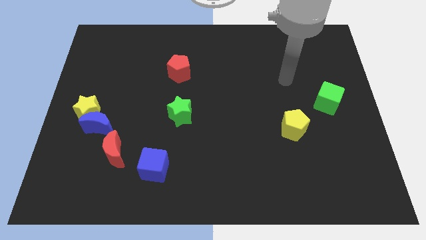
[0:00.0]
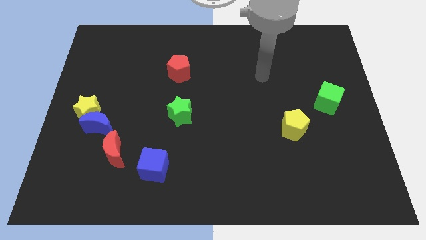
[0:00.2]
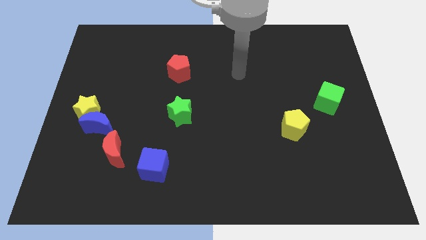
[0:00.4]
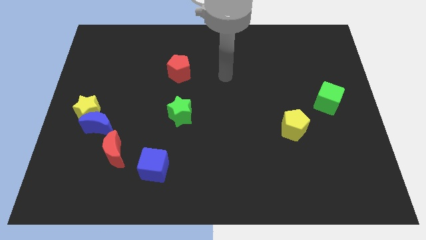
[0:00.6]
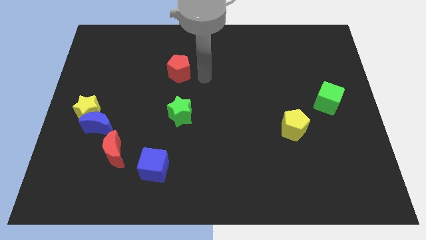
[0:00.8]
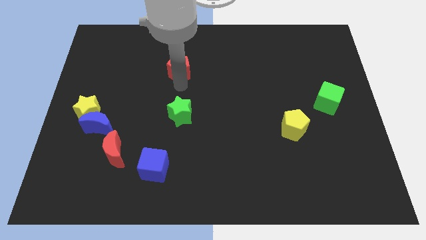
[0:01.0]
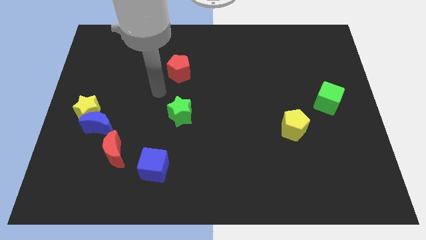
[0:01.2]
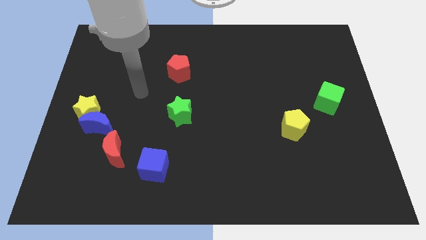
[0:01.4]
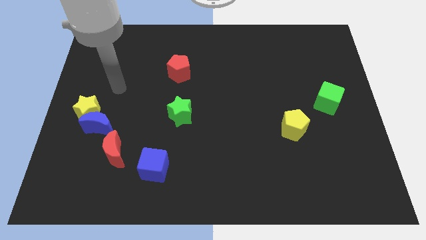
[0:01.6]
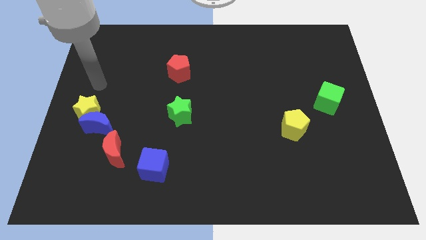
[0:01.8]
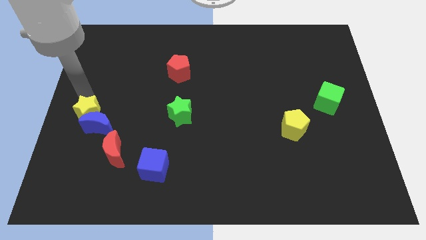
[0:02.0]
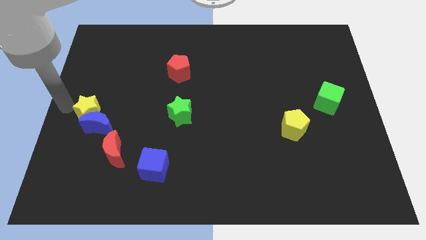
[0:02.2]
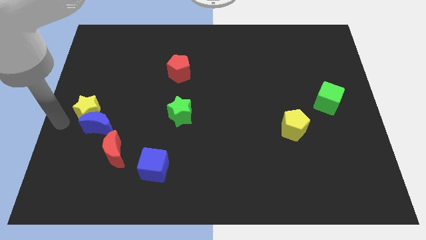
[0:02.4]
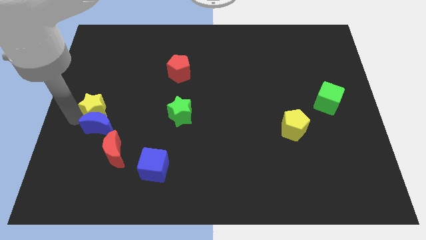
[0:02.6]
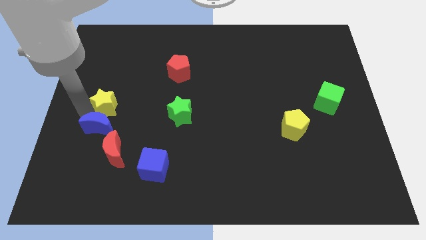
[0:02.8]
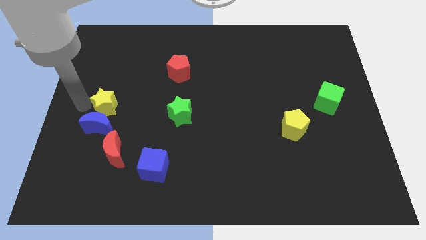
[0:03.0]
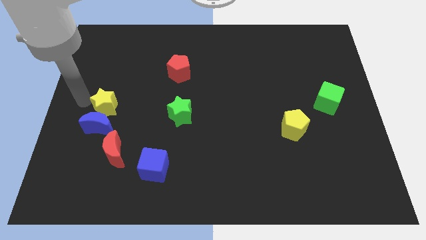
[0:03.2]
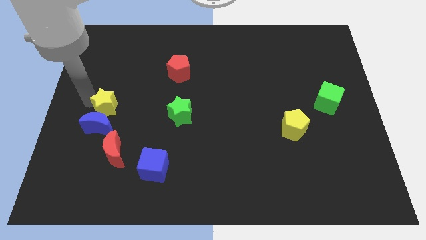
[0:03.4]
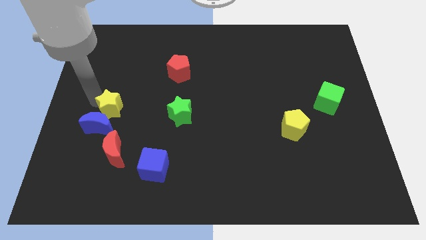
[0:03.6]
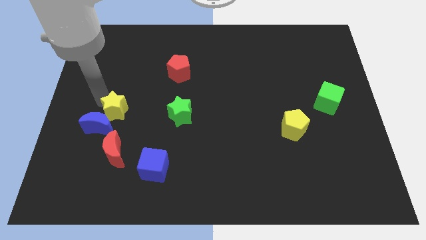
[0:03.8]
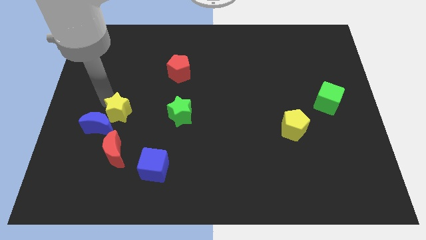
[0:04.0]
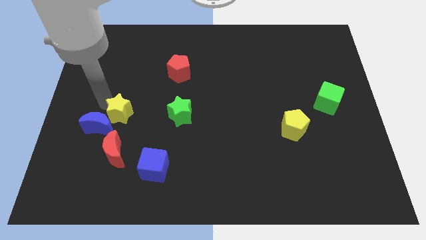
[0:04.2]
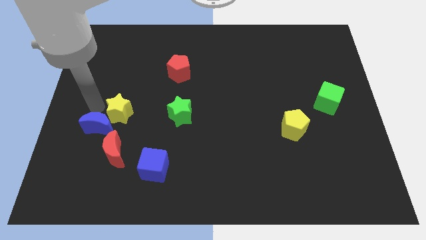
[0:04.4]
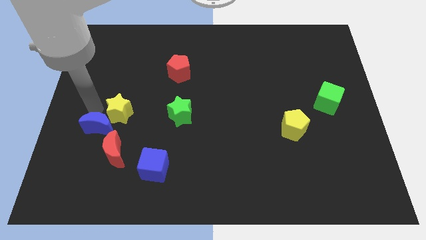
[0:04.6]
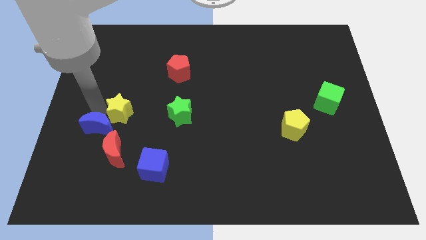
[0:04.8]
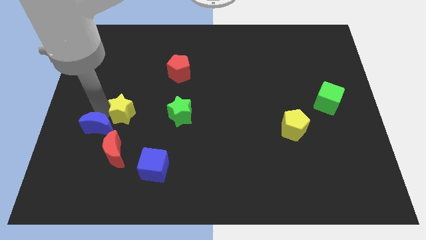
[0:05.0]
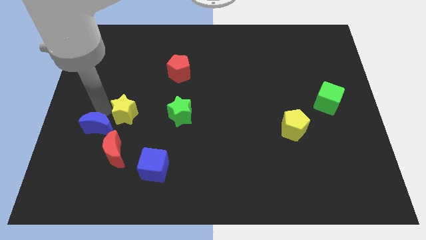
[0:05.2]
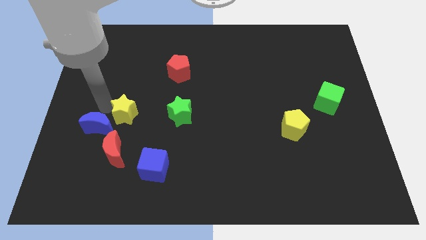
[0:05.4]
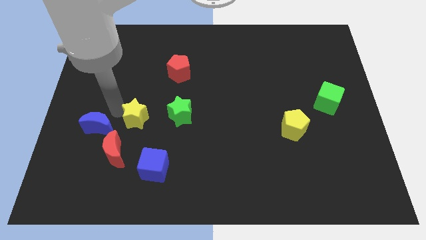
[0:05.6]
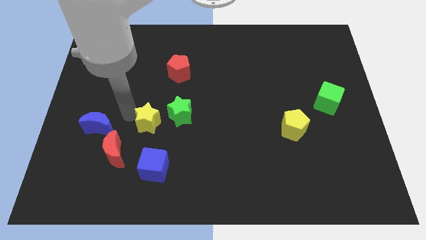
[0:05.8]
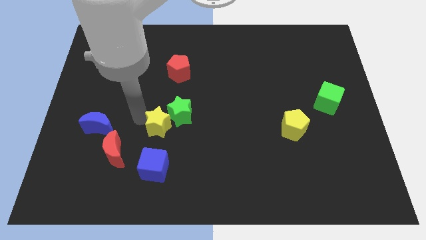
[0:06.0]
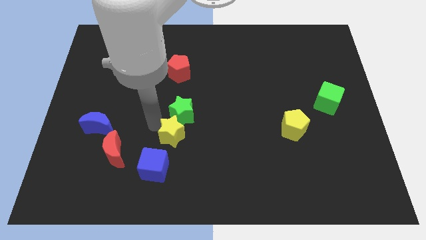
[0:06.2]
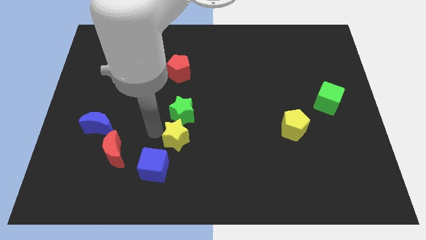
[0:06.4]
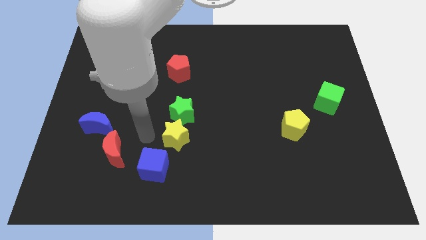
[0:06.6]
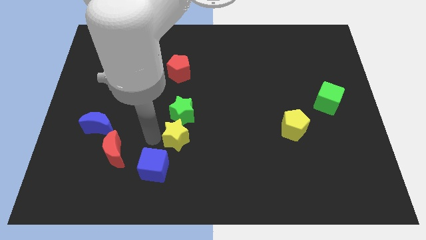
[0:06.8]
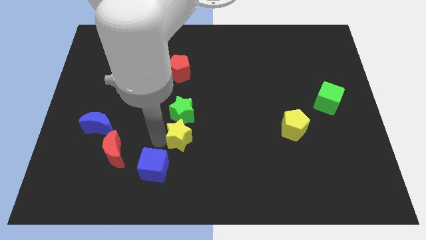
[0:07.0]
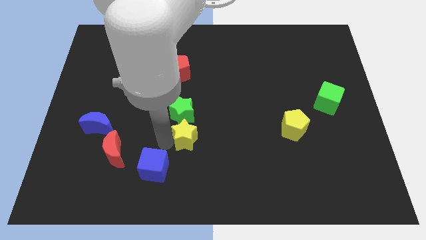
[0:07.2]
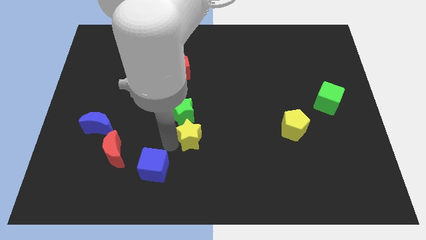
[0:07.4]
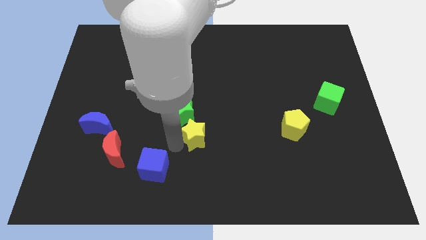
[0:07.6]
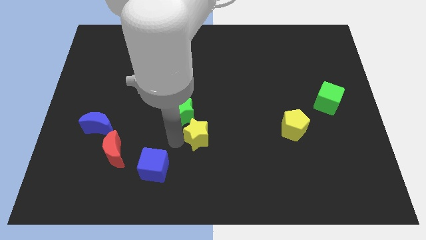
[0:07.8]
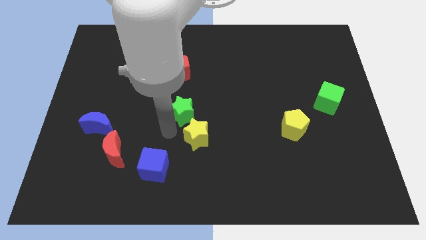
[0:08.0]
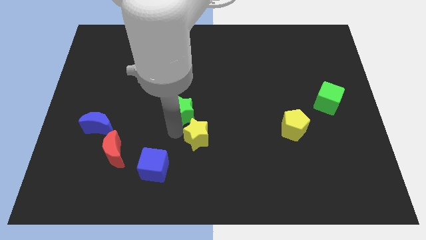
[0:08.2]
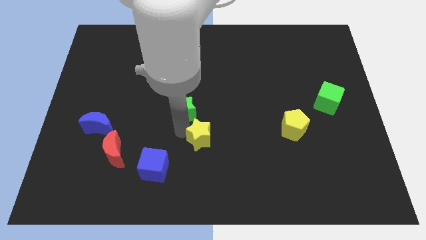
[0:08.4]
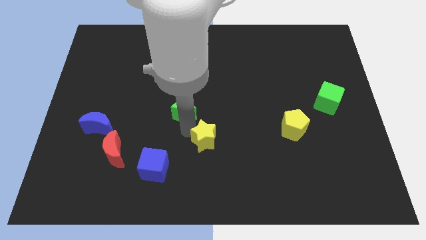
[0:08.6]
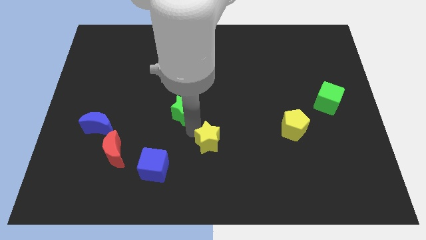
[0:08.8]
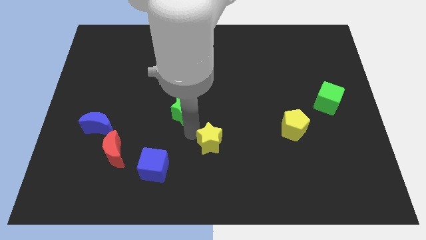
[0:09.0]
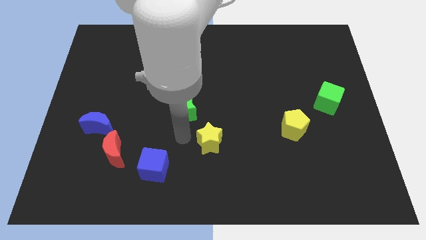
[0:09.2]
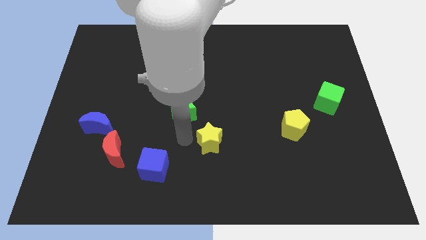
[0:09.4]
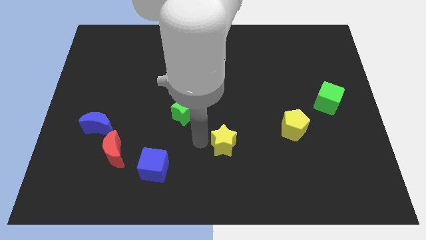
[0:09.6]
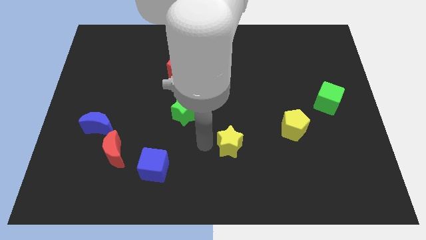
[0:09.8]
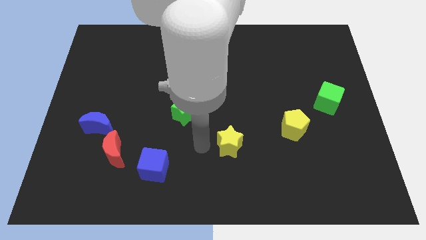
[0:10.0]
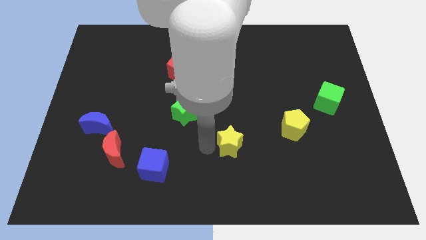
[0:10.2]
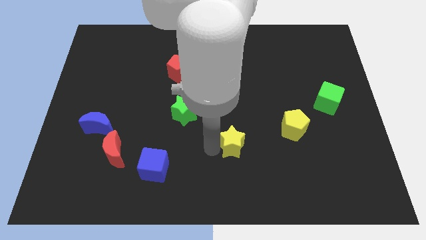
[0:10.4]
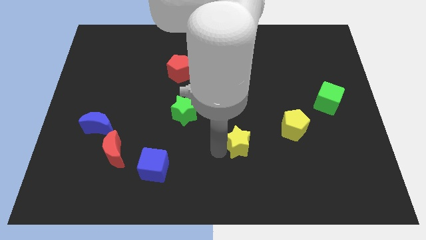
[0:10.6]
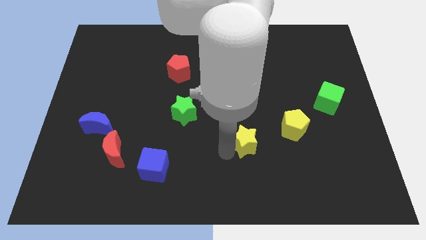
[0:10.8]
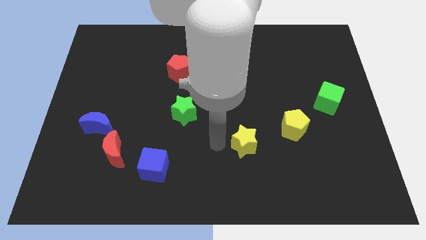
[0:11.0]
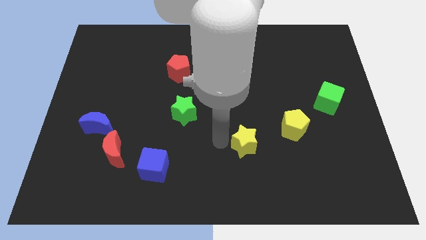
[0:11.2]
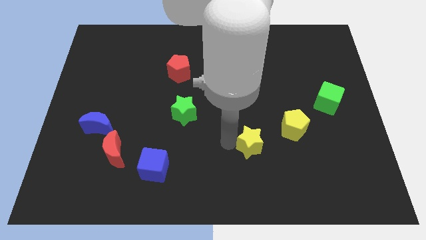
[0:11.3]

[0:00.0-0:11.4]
slide the yellow star to the bottom left of the yellow pentagon

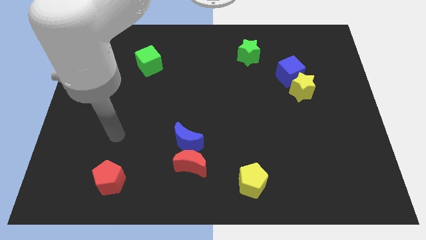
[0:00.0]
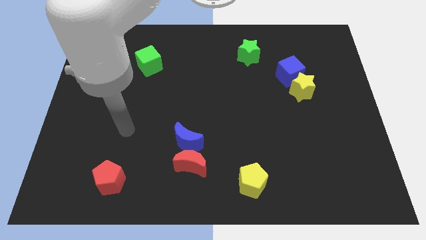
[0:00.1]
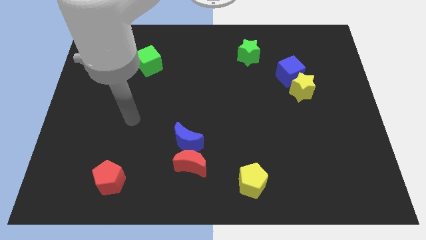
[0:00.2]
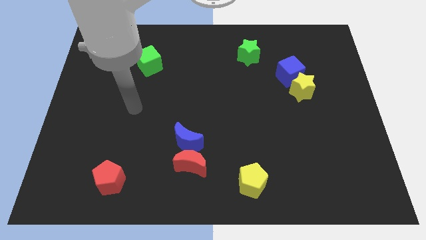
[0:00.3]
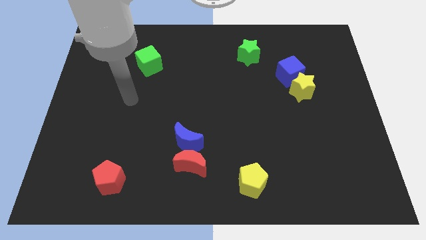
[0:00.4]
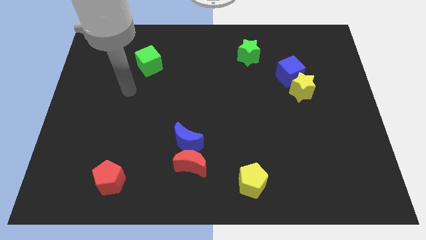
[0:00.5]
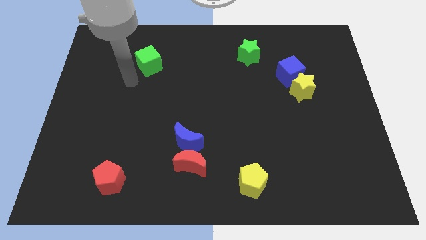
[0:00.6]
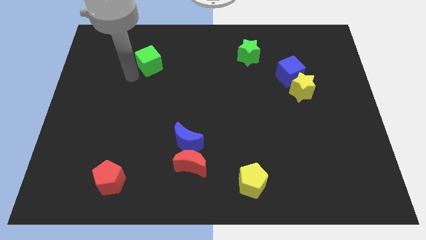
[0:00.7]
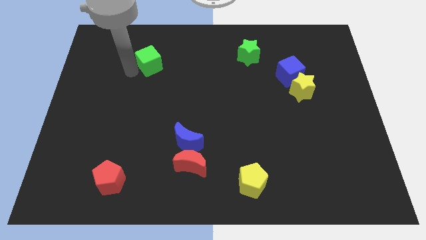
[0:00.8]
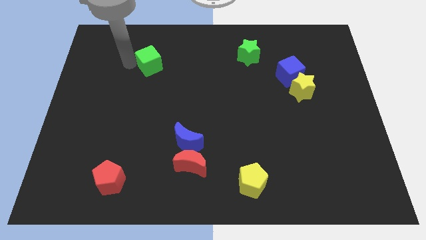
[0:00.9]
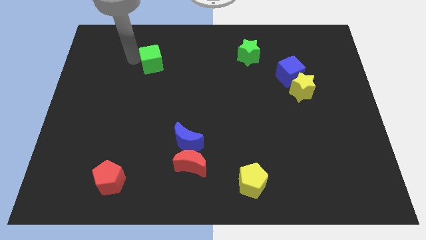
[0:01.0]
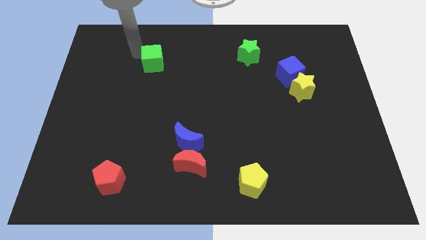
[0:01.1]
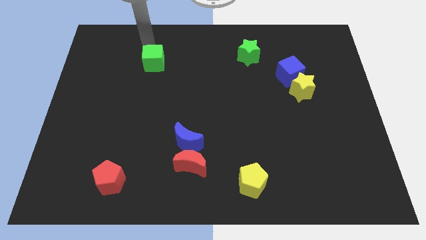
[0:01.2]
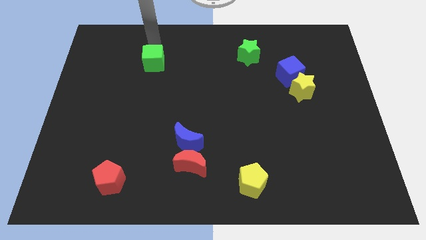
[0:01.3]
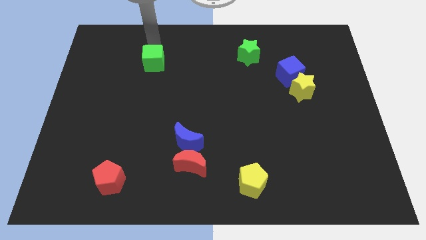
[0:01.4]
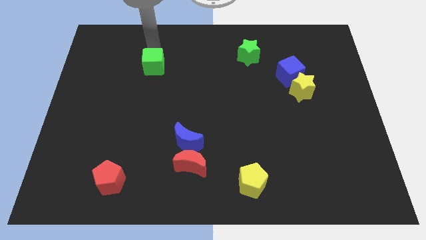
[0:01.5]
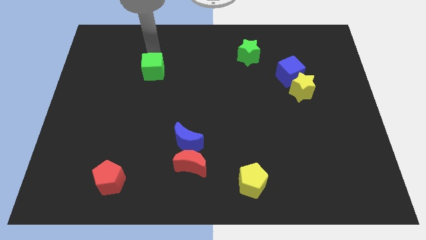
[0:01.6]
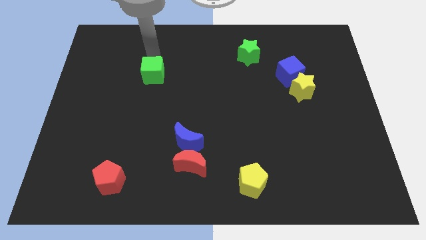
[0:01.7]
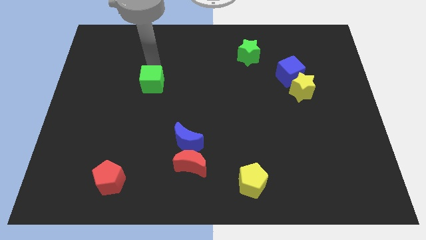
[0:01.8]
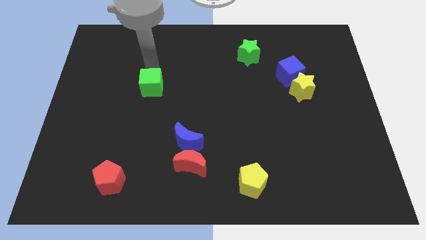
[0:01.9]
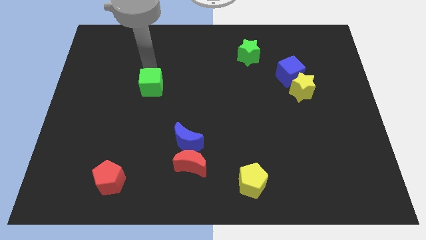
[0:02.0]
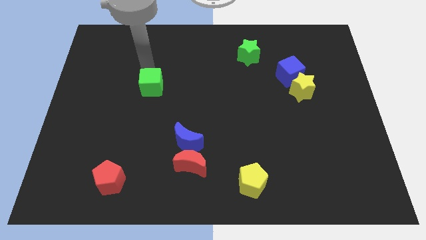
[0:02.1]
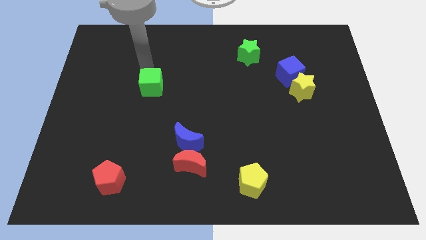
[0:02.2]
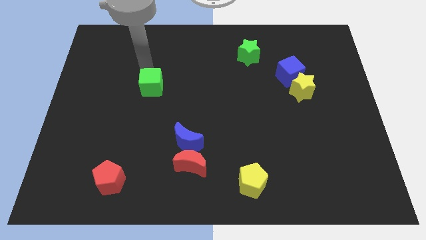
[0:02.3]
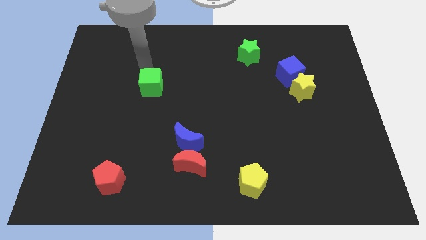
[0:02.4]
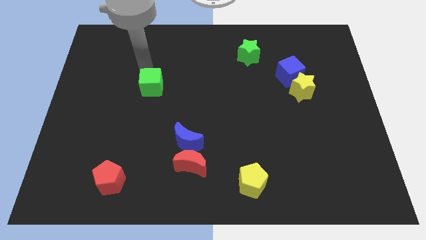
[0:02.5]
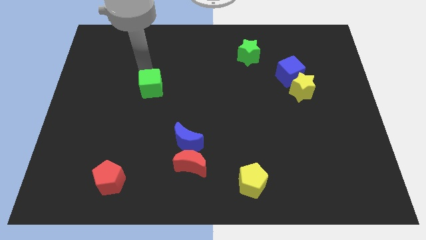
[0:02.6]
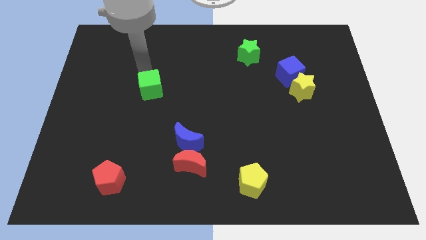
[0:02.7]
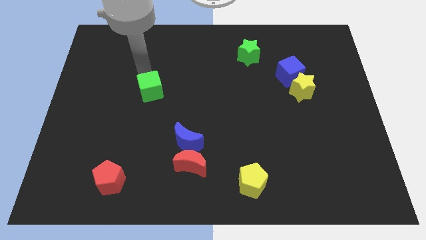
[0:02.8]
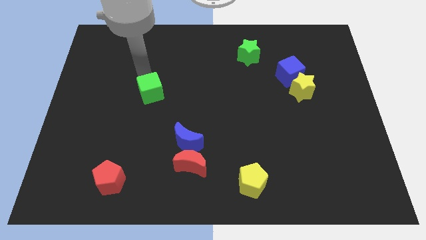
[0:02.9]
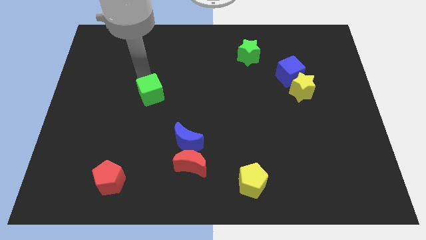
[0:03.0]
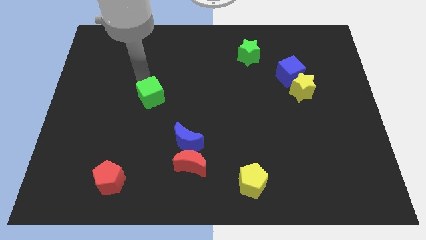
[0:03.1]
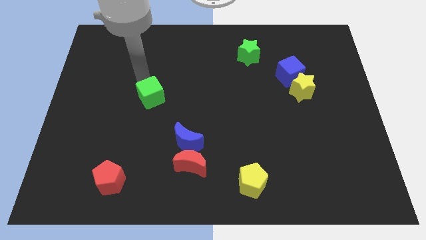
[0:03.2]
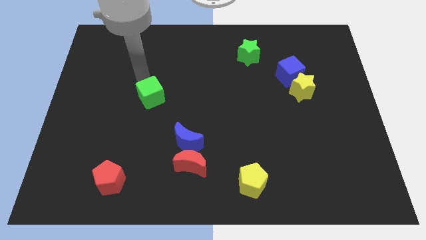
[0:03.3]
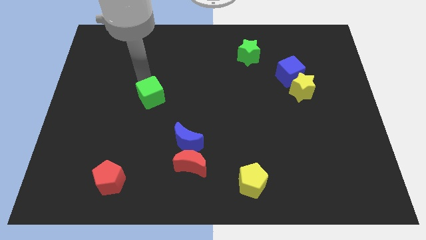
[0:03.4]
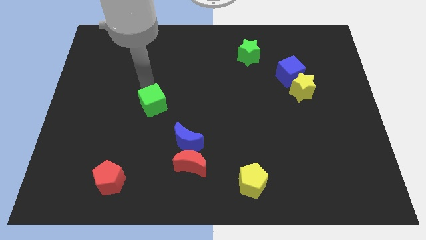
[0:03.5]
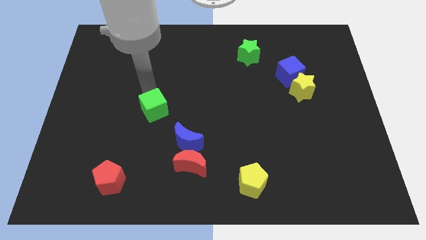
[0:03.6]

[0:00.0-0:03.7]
slide the green cube to the top left of the blue moon
